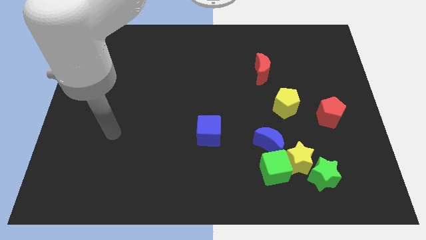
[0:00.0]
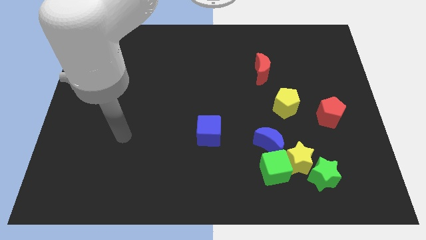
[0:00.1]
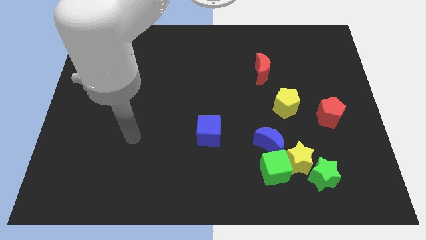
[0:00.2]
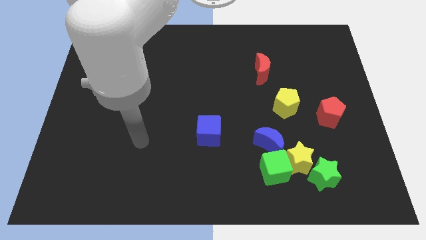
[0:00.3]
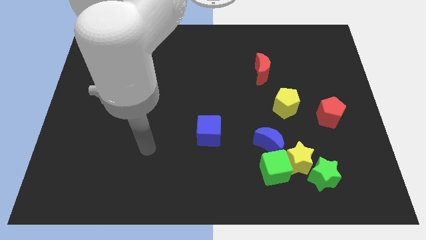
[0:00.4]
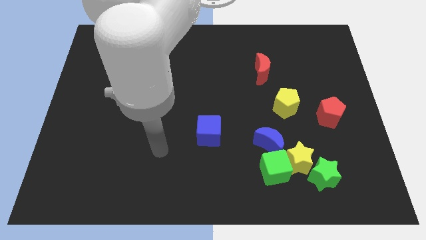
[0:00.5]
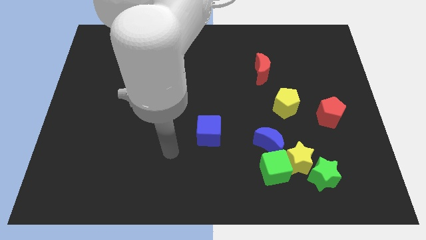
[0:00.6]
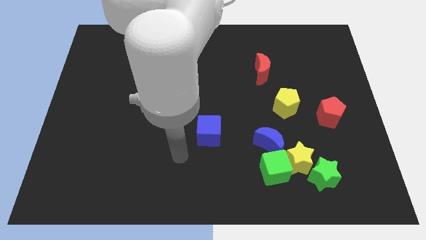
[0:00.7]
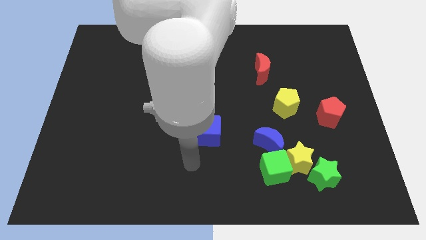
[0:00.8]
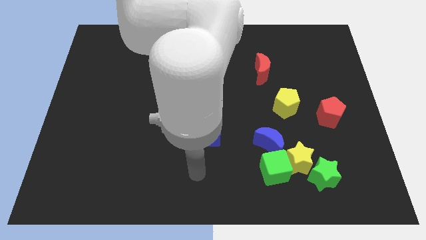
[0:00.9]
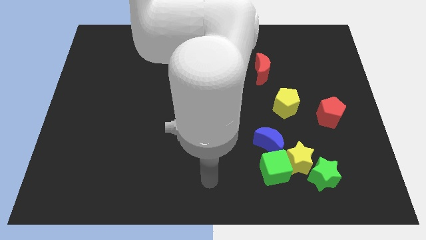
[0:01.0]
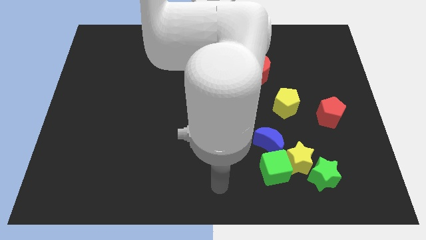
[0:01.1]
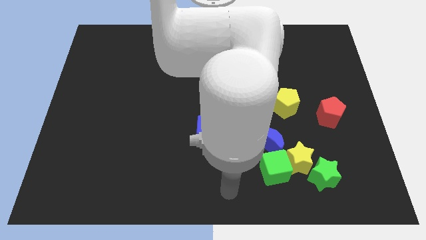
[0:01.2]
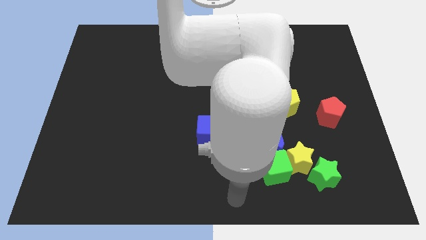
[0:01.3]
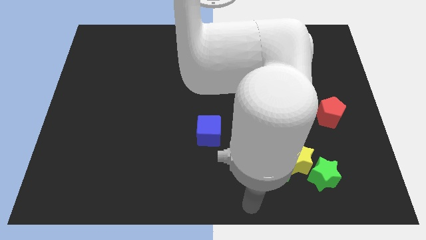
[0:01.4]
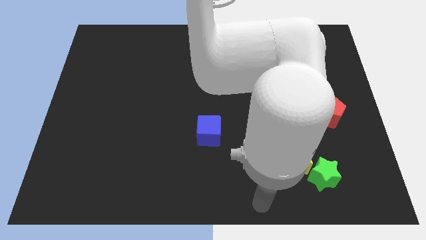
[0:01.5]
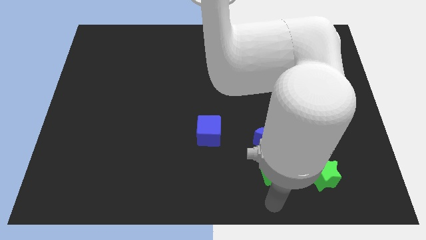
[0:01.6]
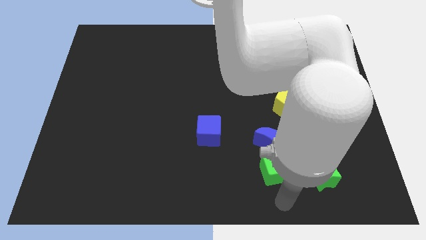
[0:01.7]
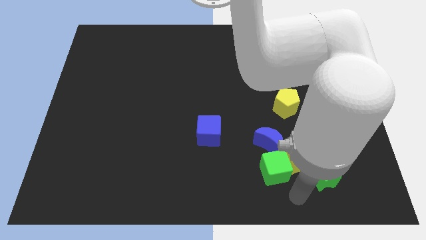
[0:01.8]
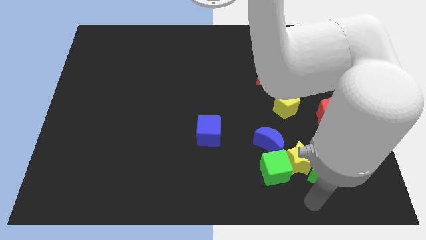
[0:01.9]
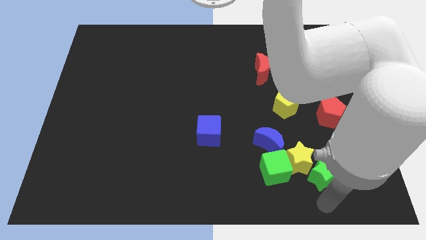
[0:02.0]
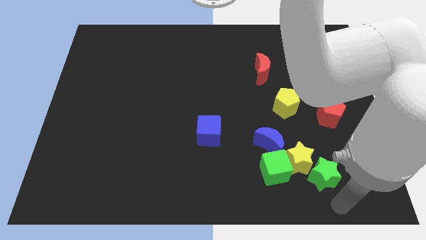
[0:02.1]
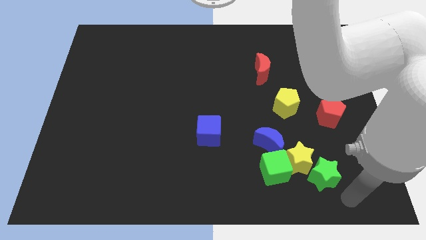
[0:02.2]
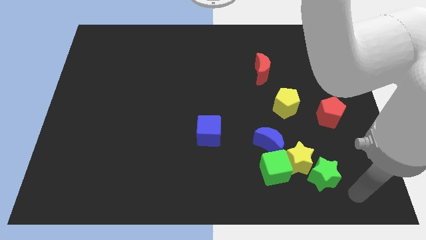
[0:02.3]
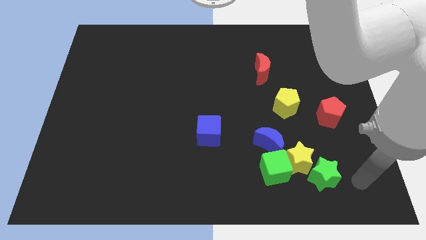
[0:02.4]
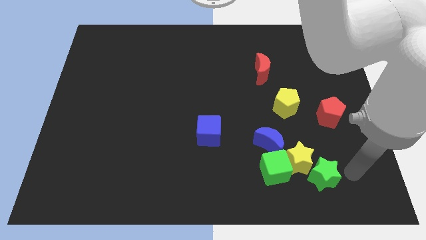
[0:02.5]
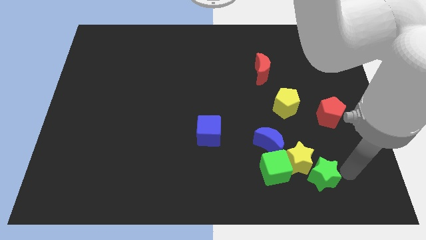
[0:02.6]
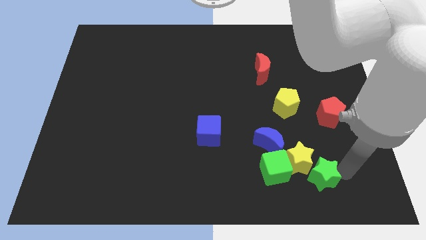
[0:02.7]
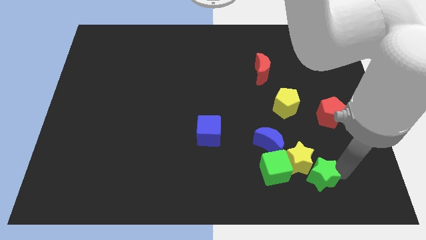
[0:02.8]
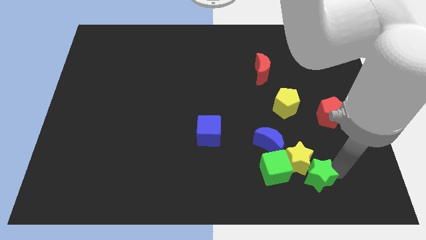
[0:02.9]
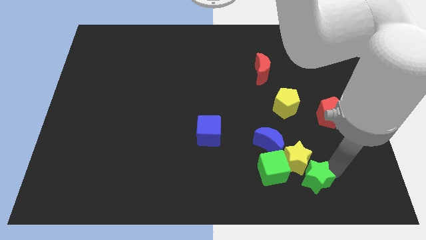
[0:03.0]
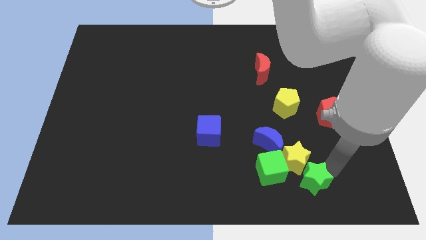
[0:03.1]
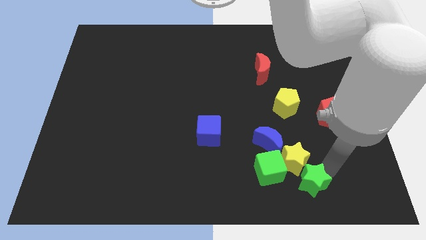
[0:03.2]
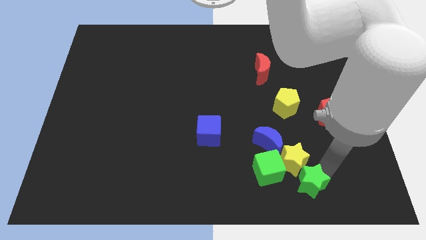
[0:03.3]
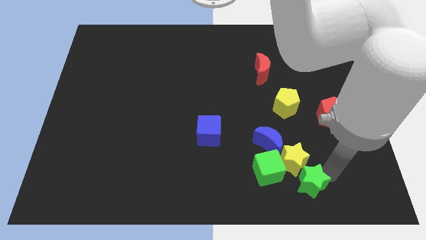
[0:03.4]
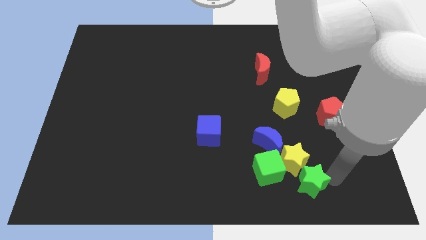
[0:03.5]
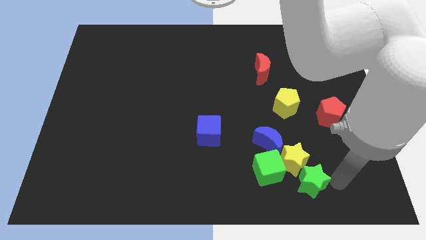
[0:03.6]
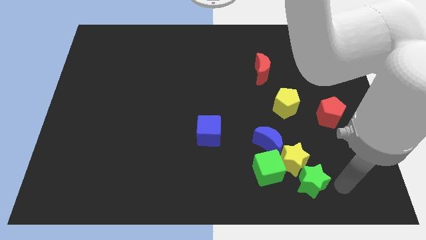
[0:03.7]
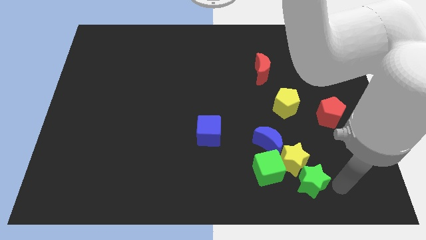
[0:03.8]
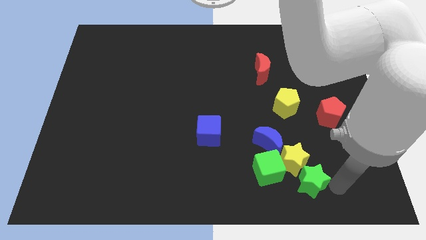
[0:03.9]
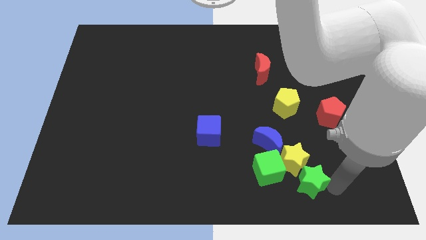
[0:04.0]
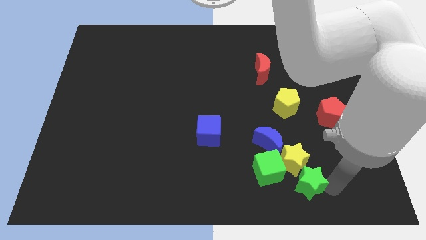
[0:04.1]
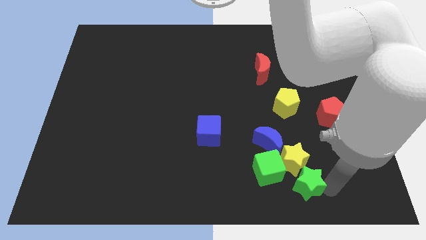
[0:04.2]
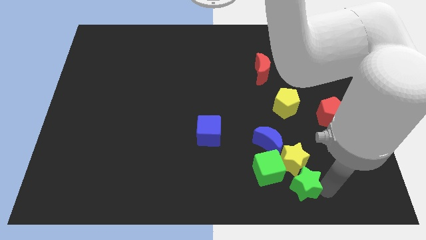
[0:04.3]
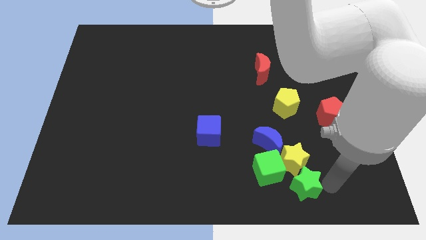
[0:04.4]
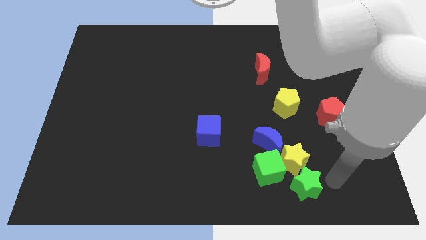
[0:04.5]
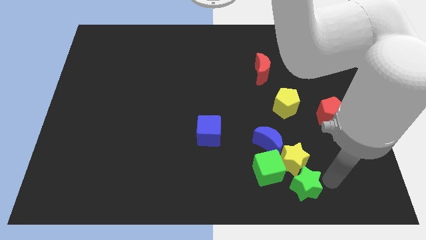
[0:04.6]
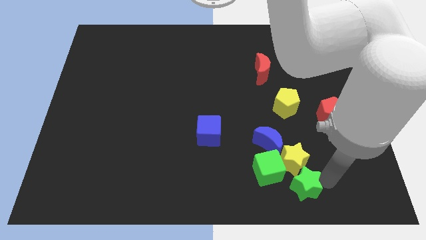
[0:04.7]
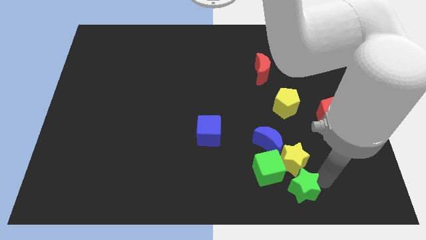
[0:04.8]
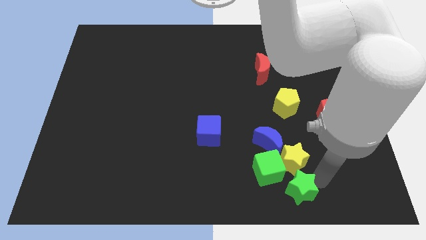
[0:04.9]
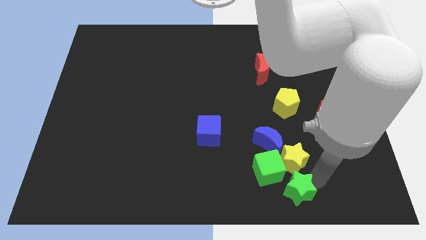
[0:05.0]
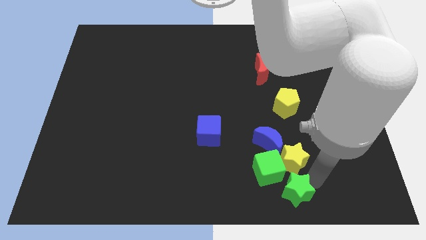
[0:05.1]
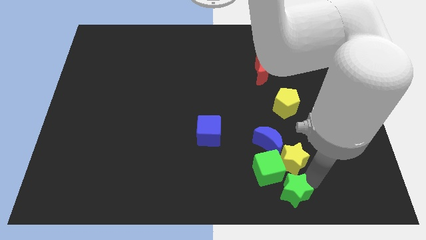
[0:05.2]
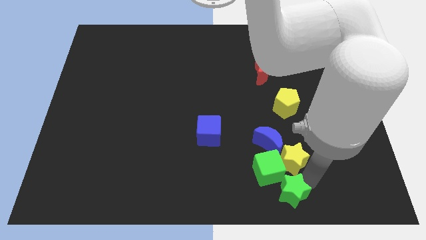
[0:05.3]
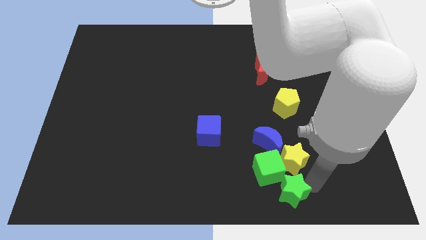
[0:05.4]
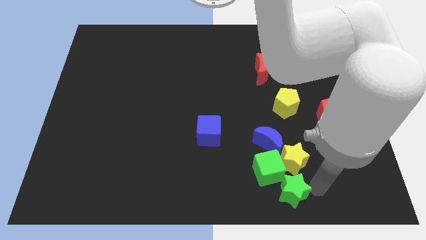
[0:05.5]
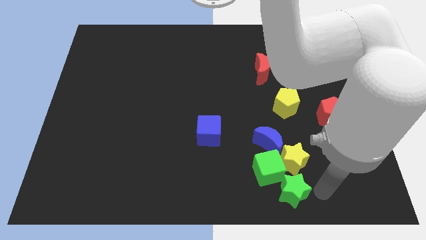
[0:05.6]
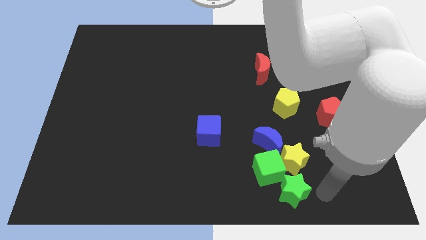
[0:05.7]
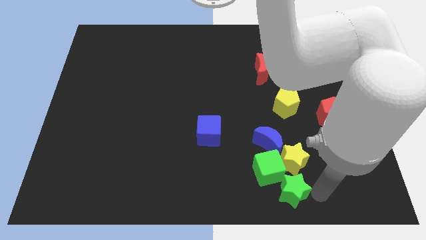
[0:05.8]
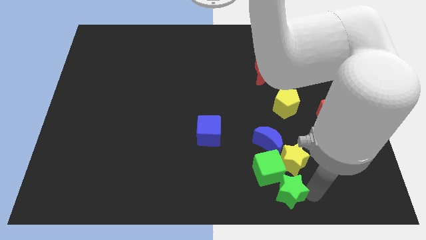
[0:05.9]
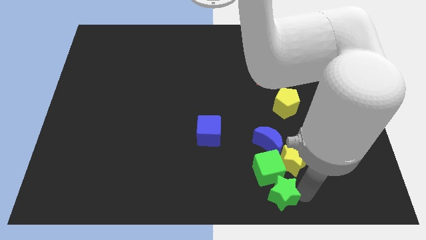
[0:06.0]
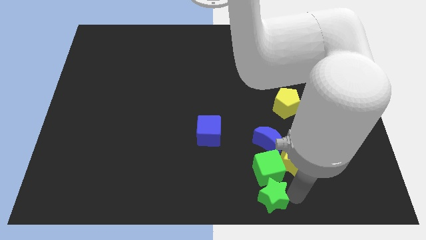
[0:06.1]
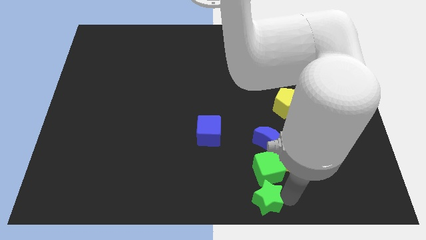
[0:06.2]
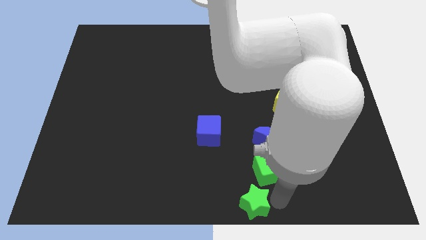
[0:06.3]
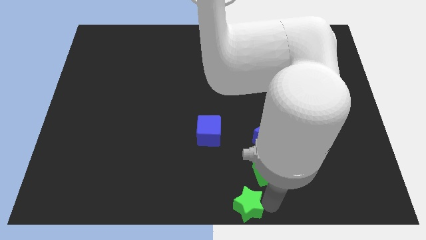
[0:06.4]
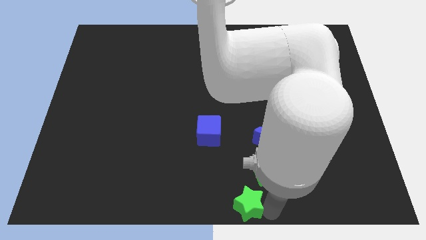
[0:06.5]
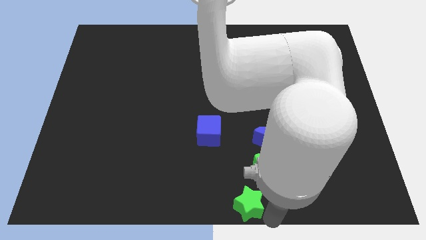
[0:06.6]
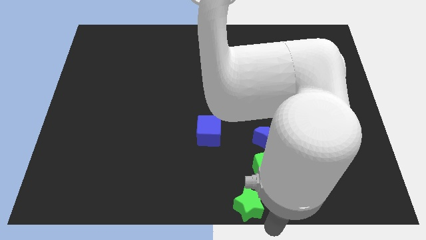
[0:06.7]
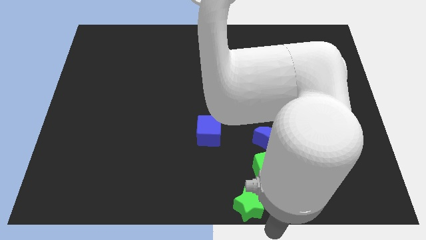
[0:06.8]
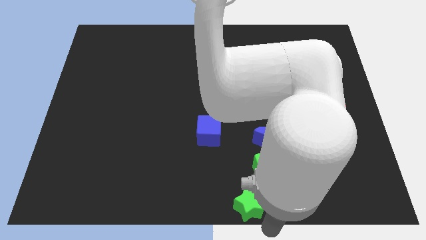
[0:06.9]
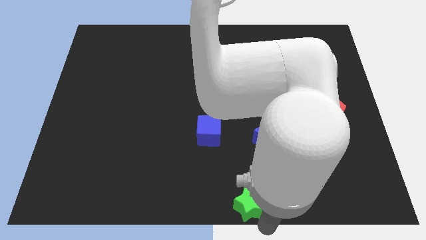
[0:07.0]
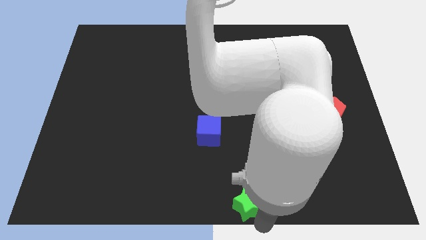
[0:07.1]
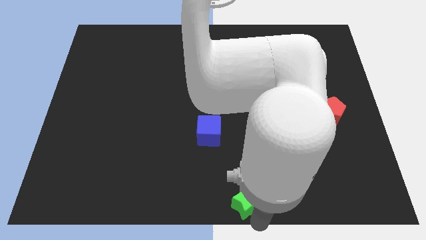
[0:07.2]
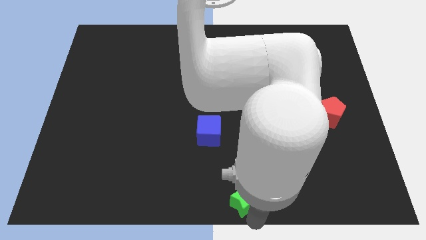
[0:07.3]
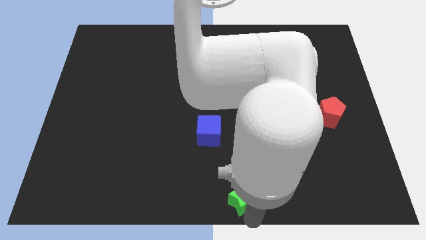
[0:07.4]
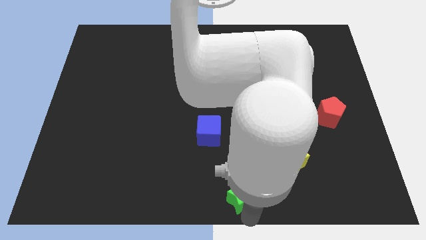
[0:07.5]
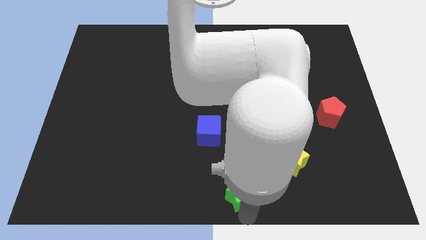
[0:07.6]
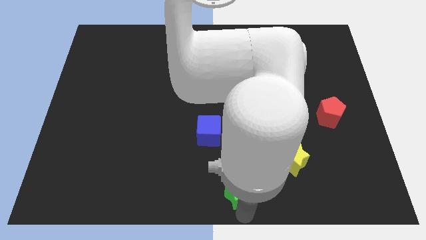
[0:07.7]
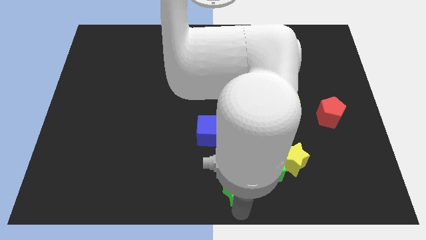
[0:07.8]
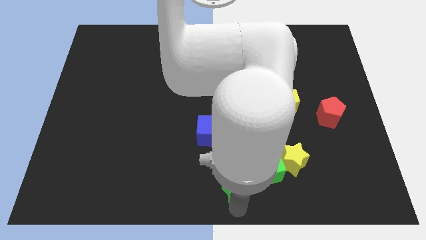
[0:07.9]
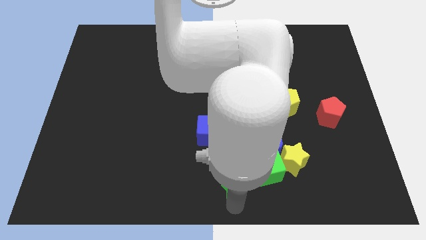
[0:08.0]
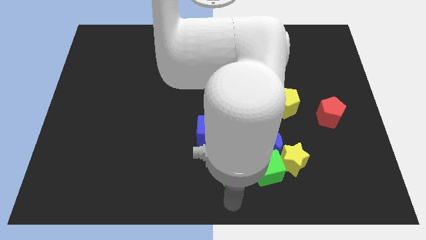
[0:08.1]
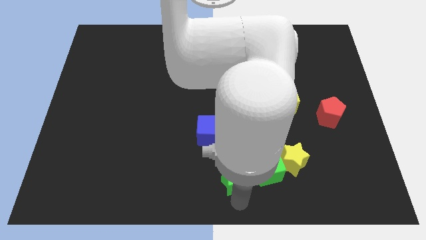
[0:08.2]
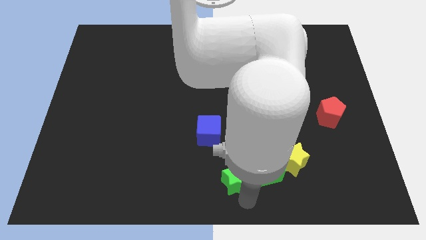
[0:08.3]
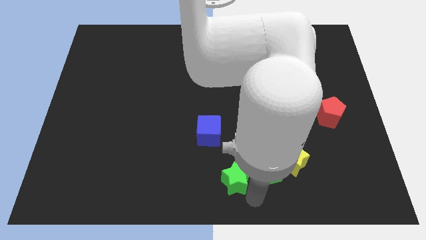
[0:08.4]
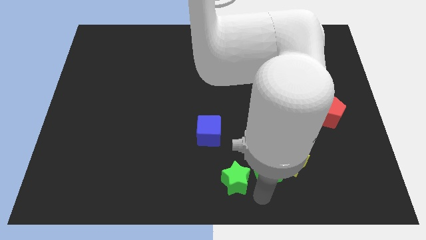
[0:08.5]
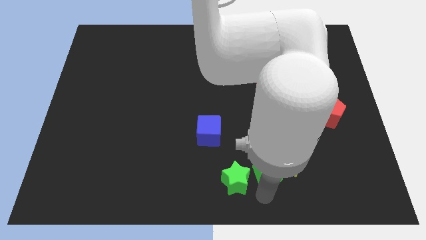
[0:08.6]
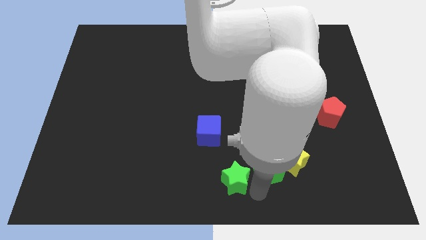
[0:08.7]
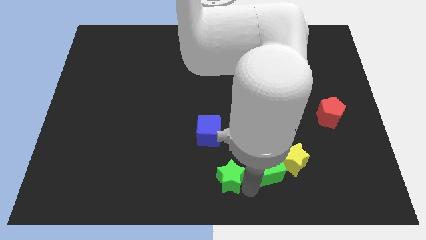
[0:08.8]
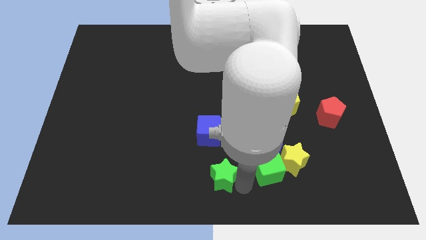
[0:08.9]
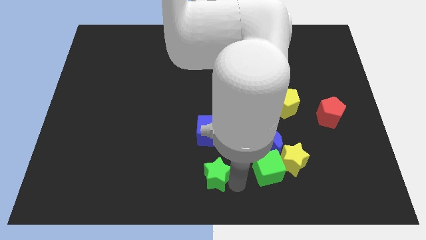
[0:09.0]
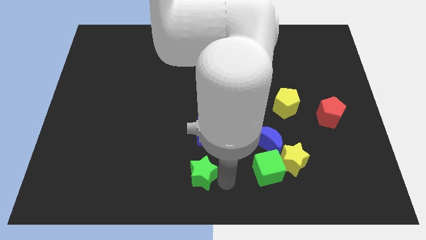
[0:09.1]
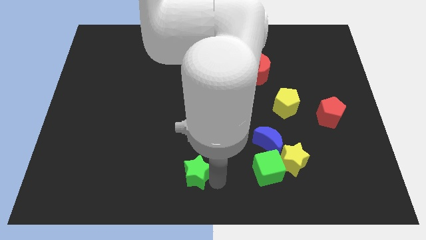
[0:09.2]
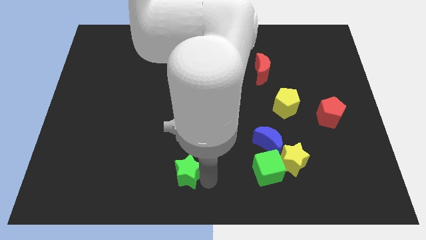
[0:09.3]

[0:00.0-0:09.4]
slide the green star to the bottom left of the blue cube
